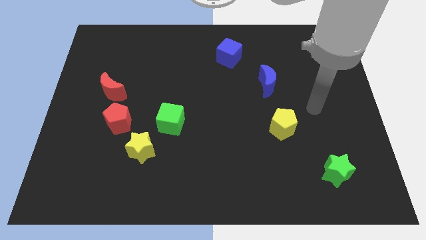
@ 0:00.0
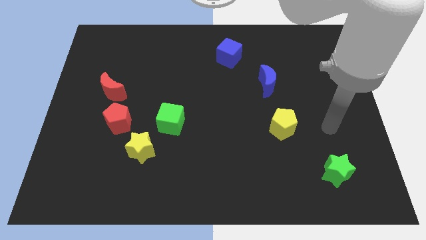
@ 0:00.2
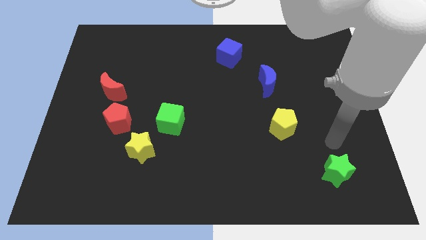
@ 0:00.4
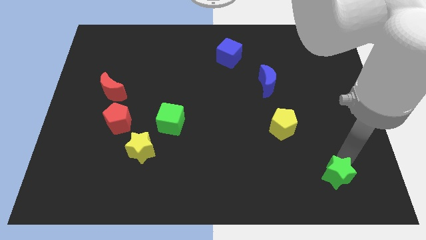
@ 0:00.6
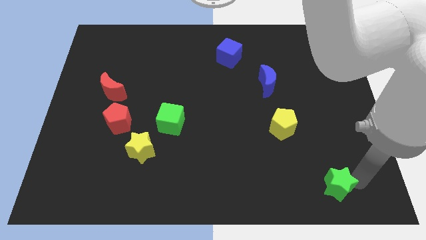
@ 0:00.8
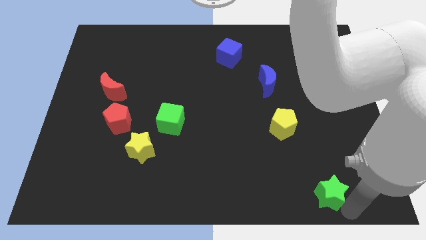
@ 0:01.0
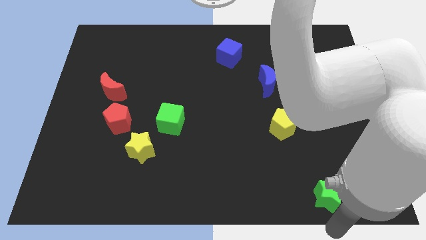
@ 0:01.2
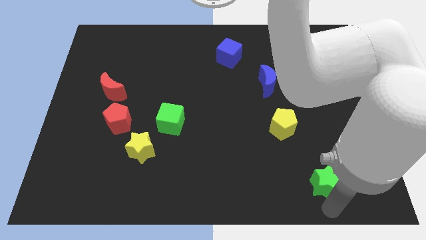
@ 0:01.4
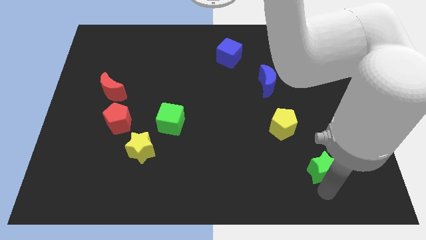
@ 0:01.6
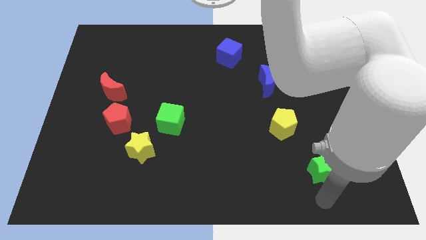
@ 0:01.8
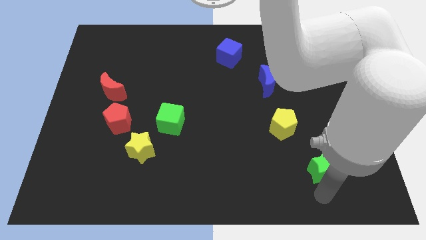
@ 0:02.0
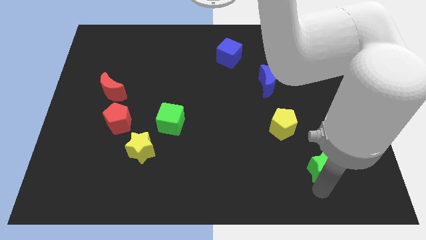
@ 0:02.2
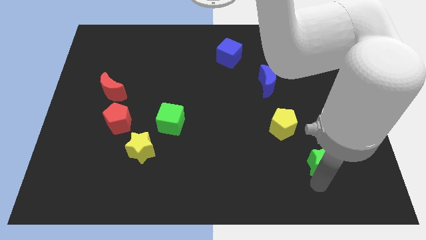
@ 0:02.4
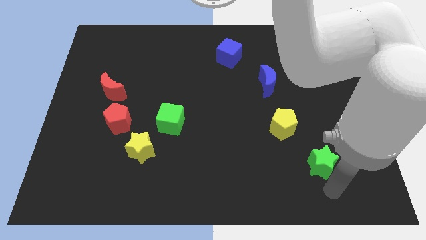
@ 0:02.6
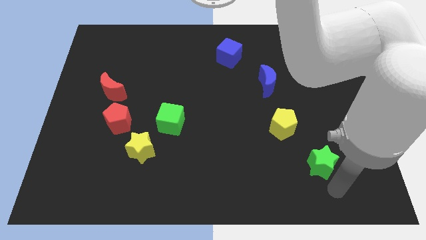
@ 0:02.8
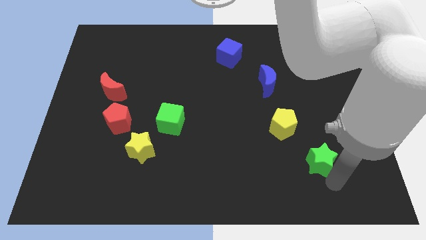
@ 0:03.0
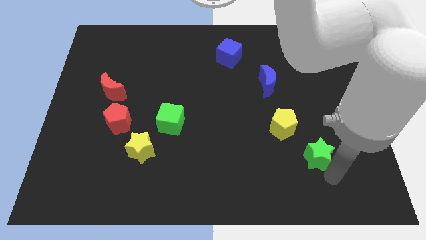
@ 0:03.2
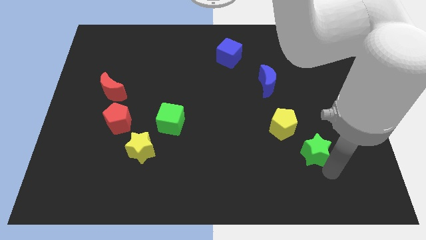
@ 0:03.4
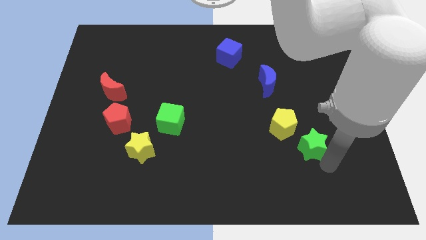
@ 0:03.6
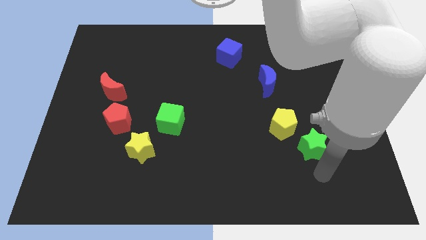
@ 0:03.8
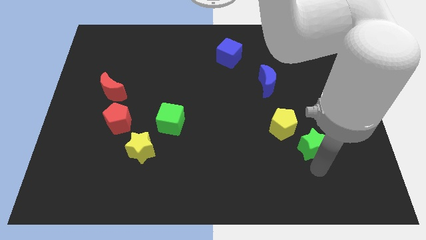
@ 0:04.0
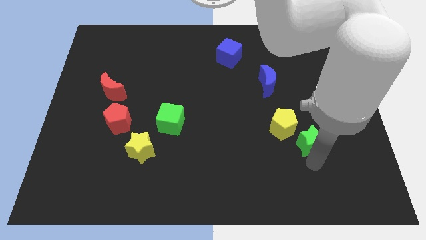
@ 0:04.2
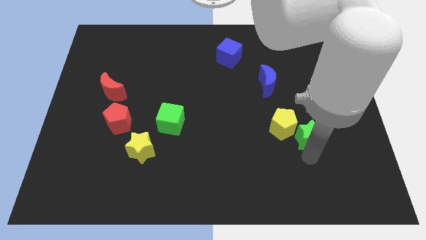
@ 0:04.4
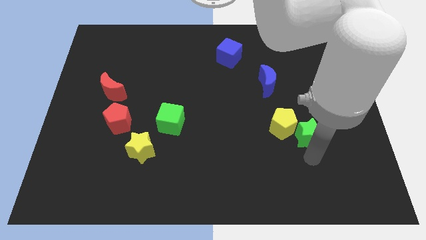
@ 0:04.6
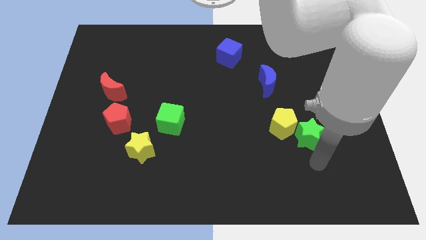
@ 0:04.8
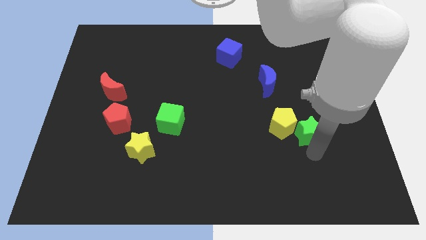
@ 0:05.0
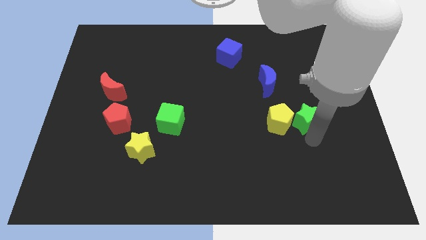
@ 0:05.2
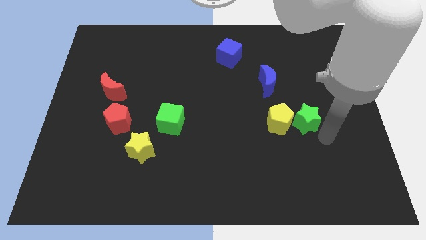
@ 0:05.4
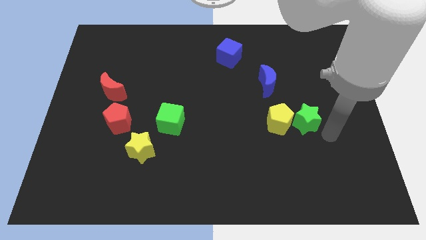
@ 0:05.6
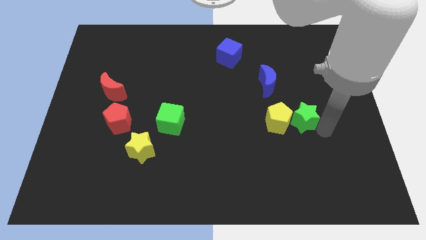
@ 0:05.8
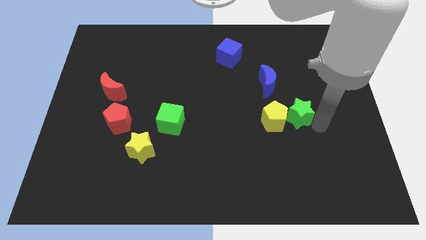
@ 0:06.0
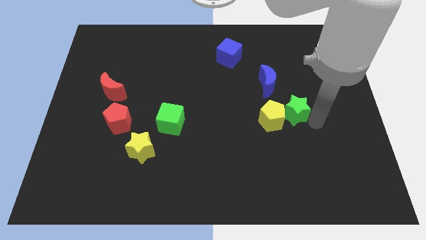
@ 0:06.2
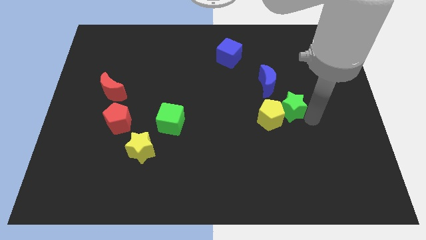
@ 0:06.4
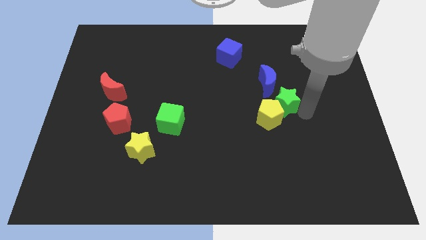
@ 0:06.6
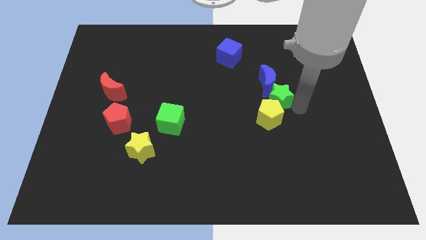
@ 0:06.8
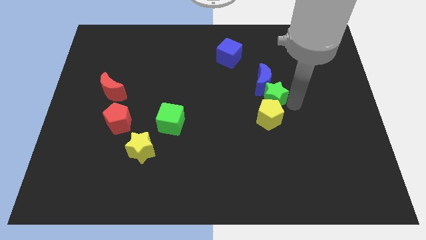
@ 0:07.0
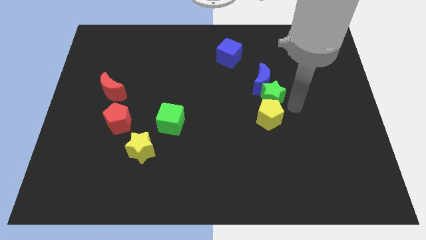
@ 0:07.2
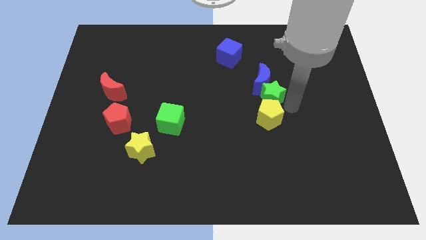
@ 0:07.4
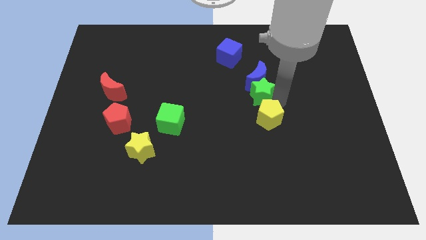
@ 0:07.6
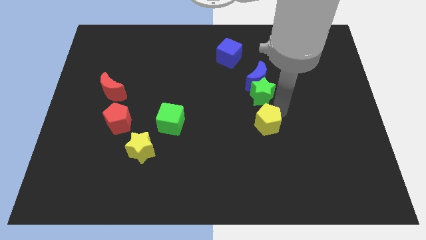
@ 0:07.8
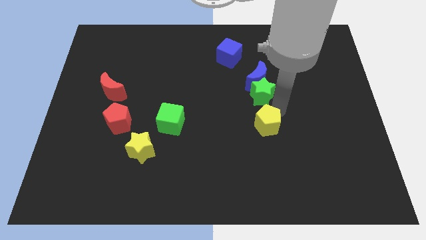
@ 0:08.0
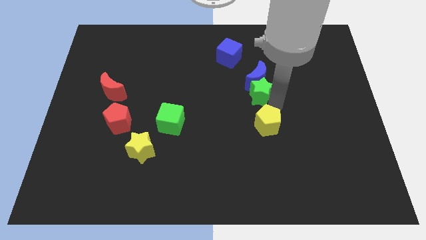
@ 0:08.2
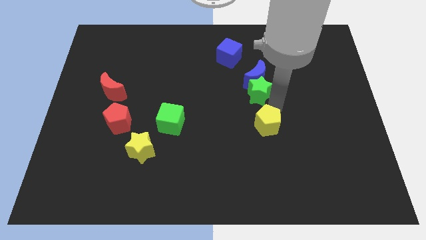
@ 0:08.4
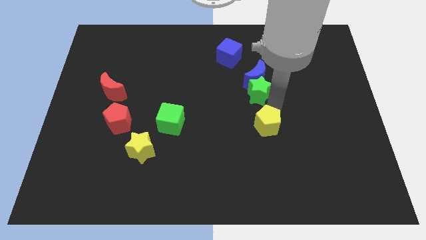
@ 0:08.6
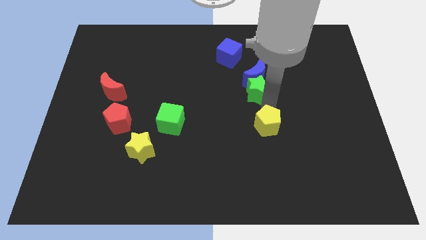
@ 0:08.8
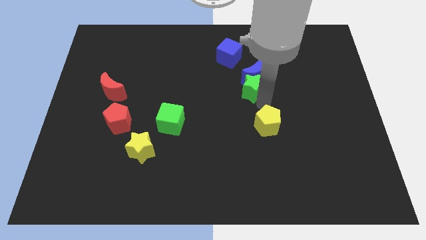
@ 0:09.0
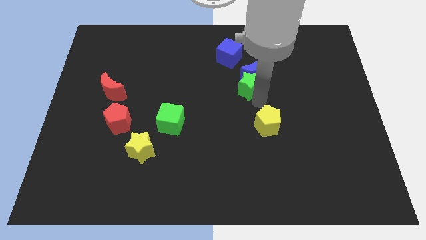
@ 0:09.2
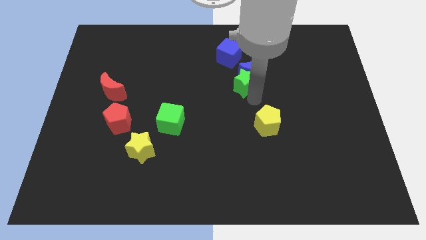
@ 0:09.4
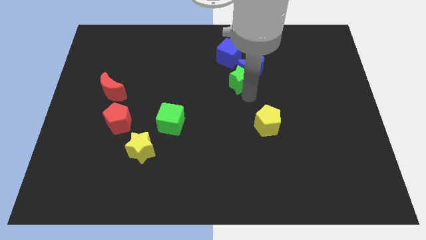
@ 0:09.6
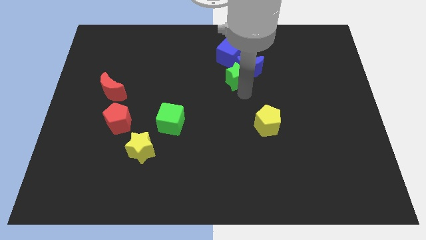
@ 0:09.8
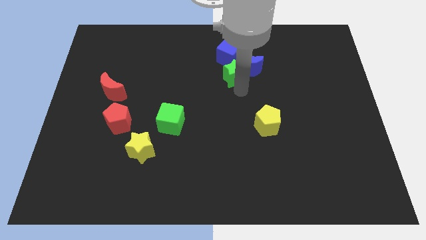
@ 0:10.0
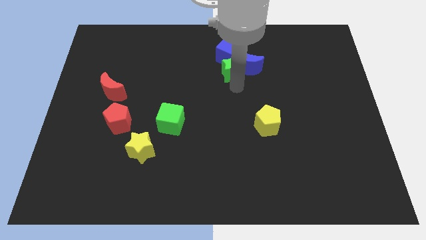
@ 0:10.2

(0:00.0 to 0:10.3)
put the green star close to the blue cube

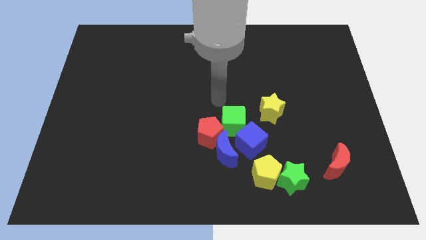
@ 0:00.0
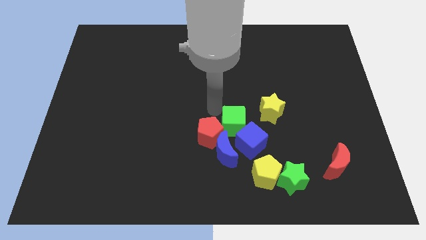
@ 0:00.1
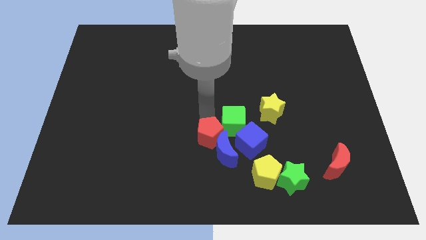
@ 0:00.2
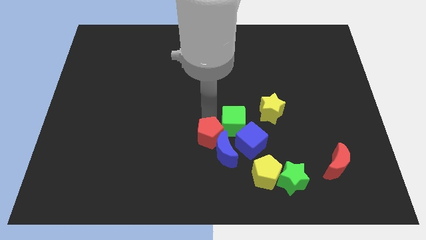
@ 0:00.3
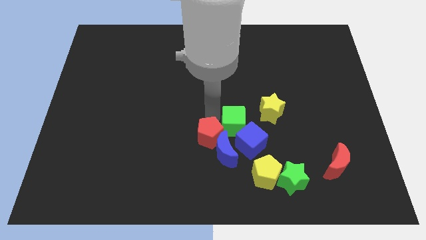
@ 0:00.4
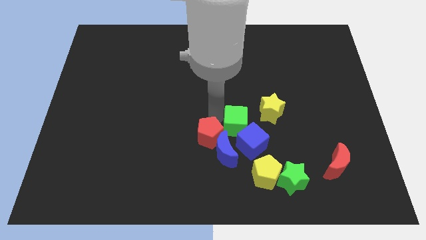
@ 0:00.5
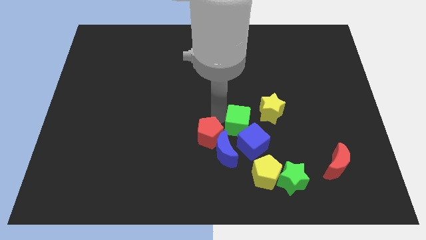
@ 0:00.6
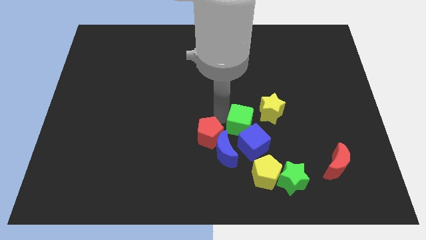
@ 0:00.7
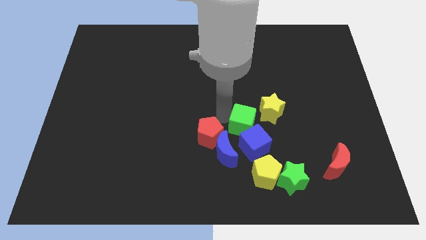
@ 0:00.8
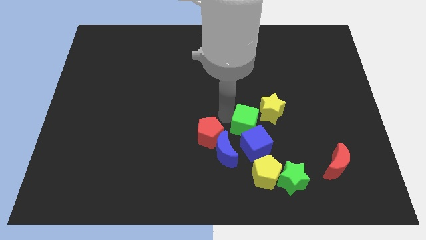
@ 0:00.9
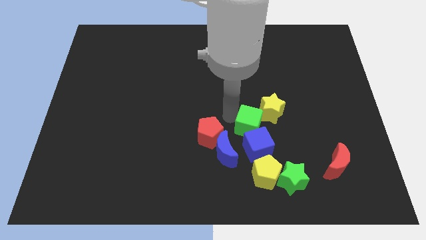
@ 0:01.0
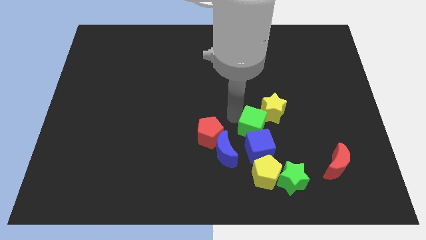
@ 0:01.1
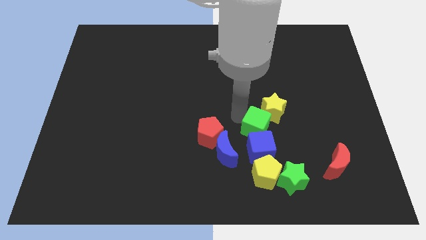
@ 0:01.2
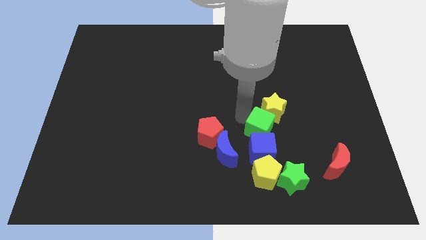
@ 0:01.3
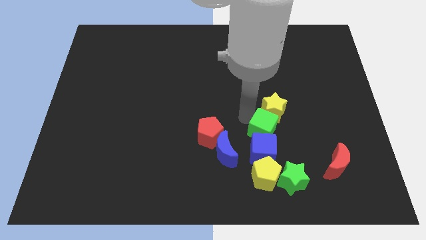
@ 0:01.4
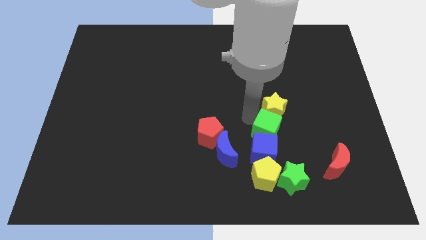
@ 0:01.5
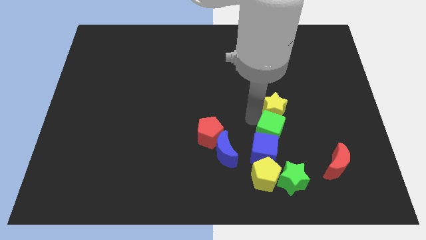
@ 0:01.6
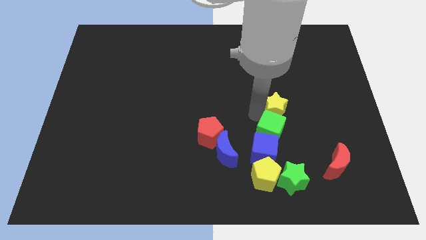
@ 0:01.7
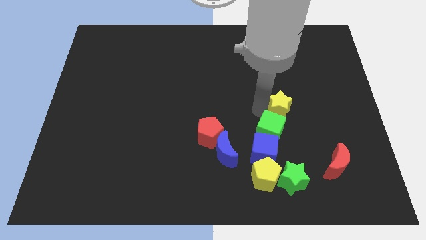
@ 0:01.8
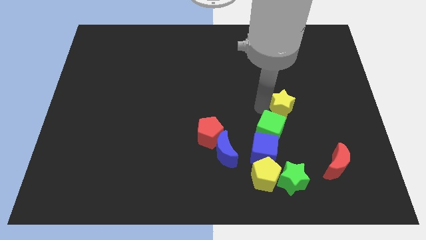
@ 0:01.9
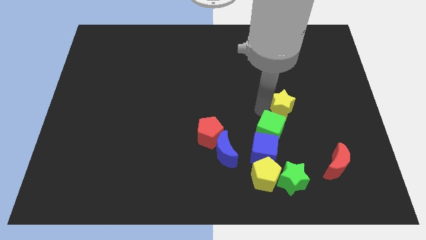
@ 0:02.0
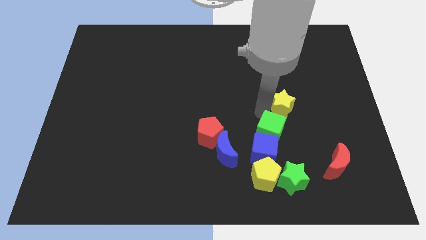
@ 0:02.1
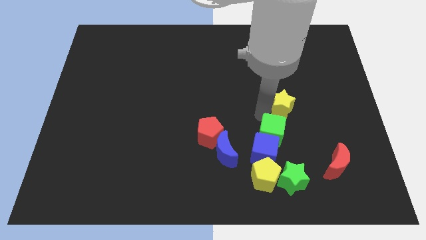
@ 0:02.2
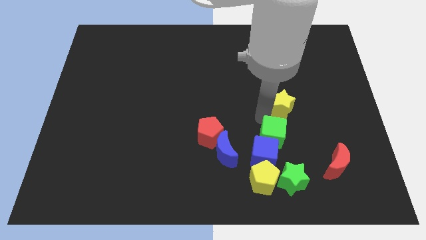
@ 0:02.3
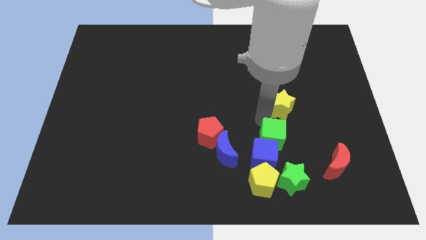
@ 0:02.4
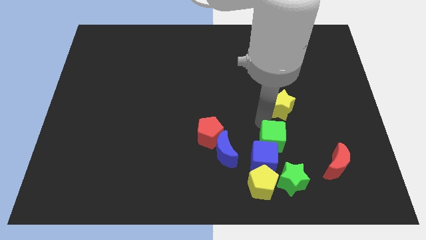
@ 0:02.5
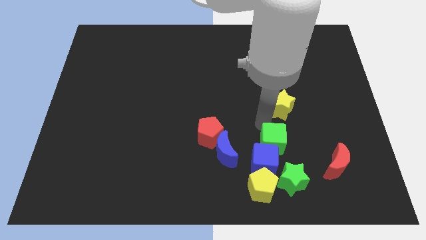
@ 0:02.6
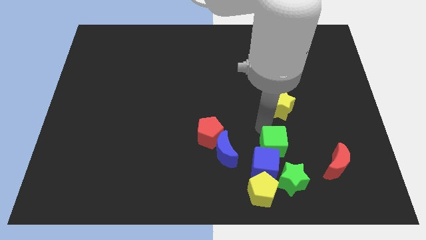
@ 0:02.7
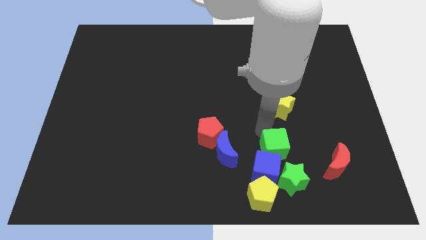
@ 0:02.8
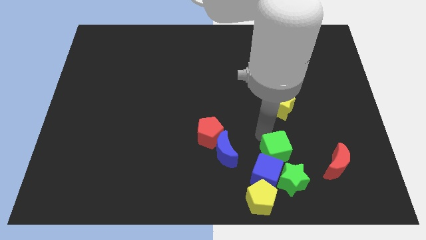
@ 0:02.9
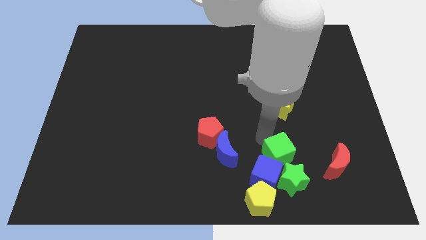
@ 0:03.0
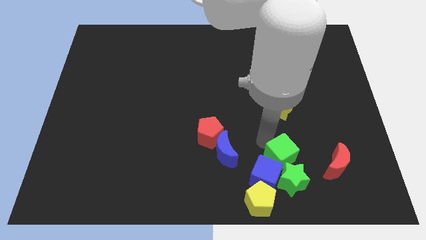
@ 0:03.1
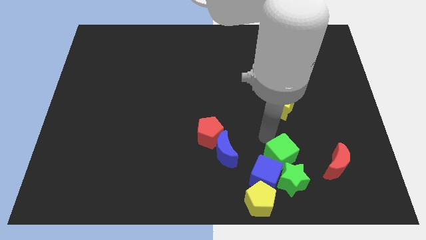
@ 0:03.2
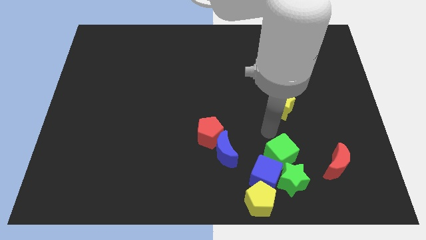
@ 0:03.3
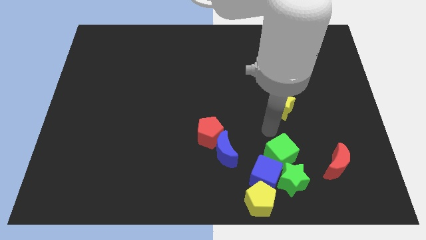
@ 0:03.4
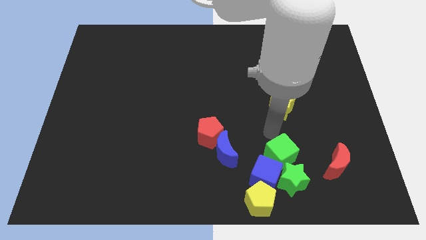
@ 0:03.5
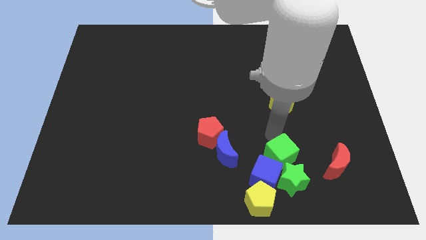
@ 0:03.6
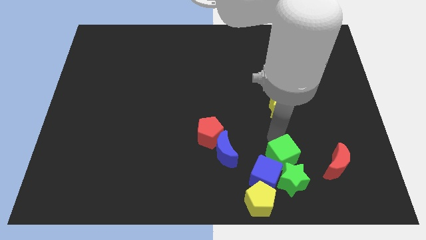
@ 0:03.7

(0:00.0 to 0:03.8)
slide the green cube next to the green star
